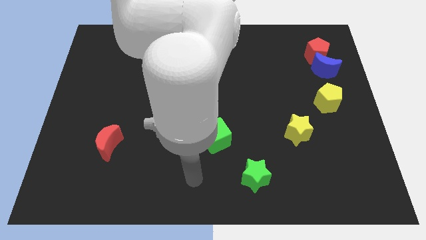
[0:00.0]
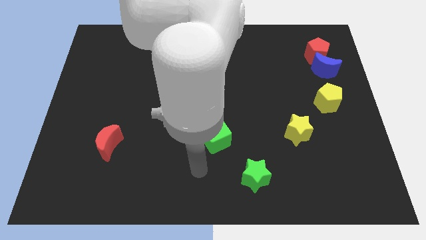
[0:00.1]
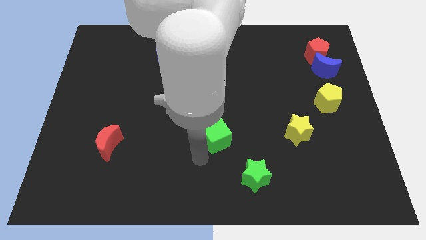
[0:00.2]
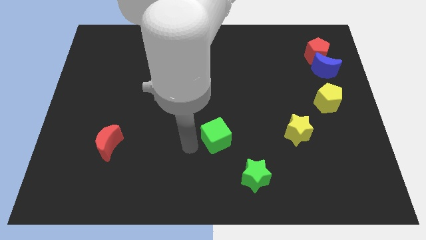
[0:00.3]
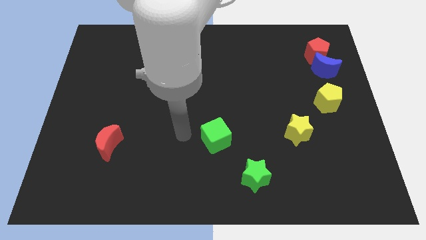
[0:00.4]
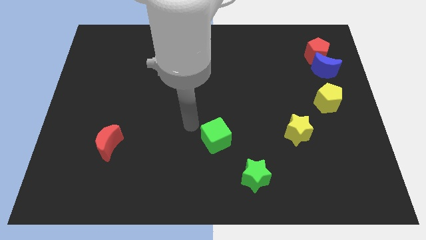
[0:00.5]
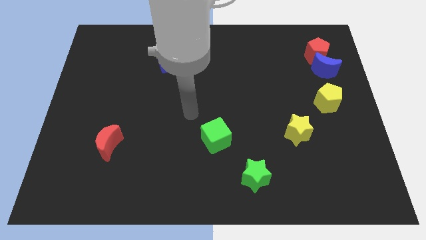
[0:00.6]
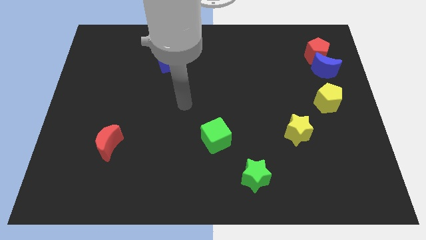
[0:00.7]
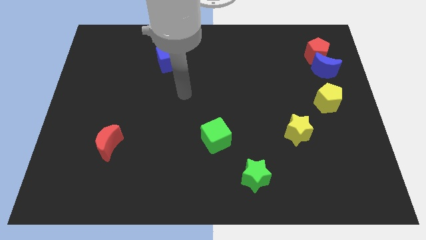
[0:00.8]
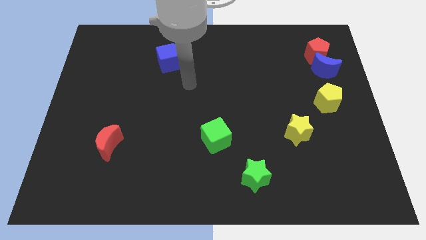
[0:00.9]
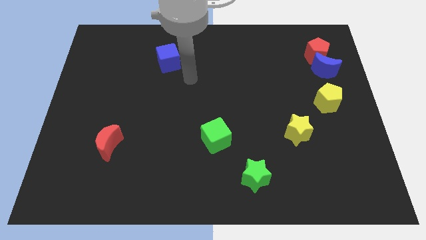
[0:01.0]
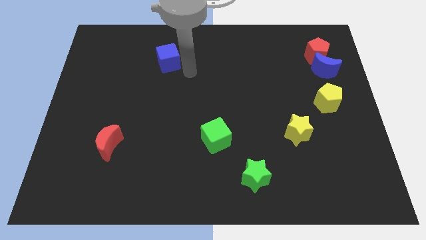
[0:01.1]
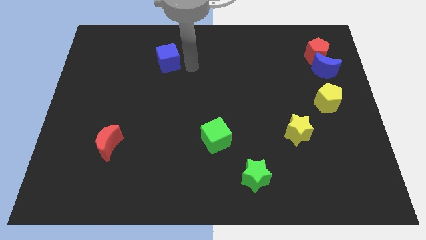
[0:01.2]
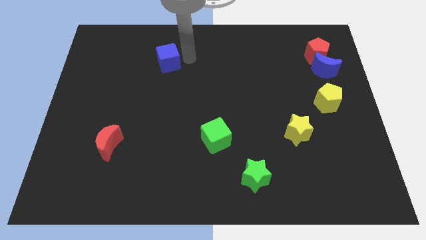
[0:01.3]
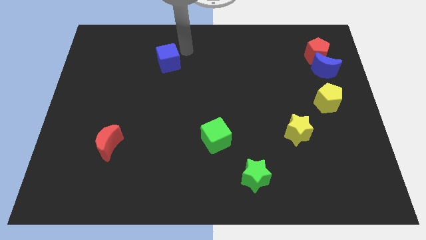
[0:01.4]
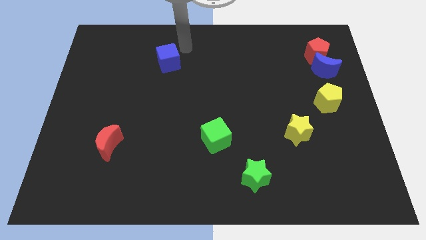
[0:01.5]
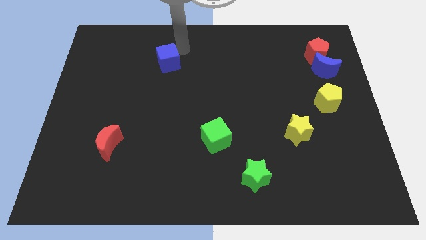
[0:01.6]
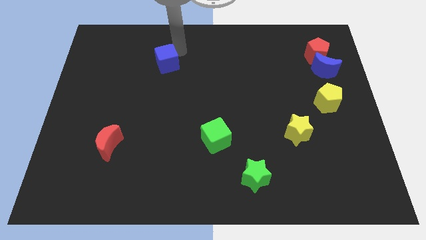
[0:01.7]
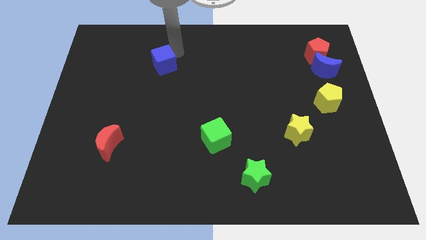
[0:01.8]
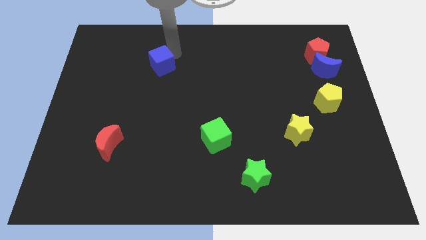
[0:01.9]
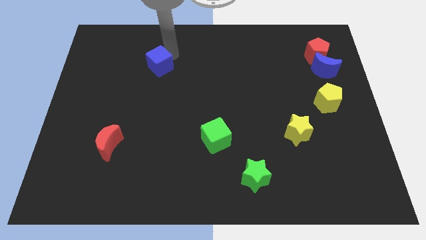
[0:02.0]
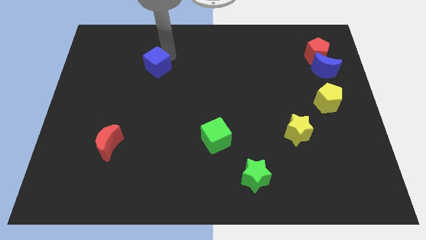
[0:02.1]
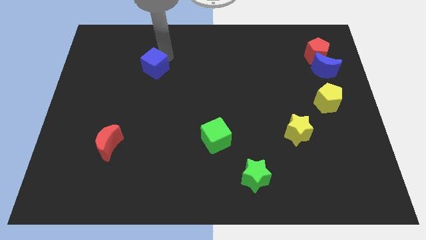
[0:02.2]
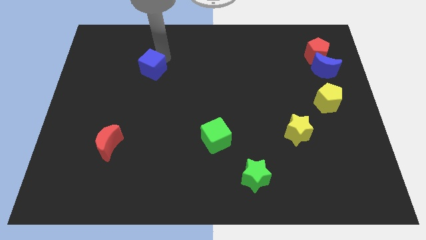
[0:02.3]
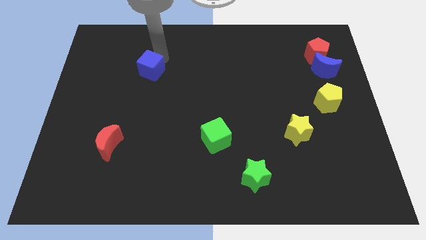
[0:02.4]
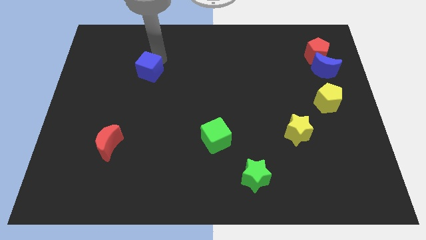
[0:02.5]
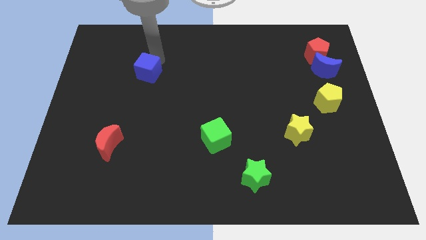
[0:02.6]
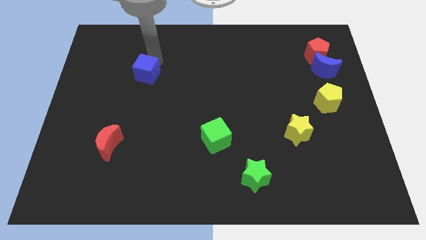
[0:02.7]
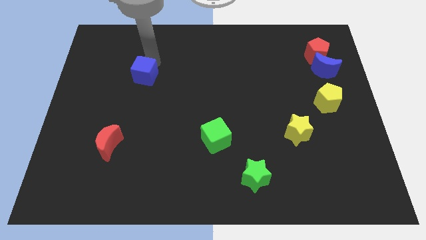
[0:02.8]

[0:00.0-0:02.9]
slide the blue cube a bit diagonally downwards and to the left

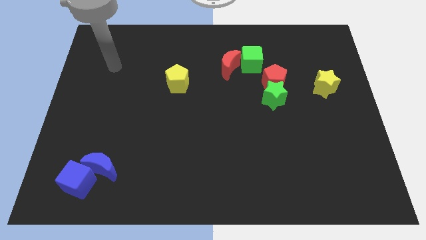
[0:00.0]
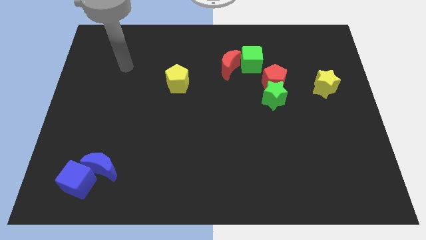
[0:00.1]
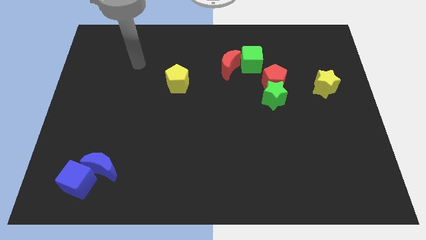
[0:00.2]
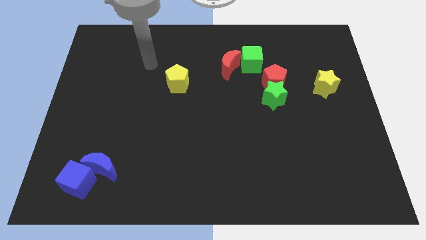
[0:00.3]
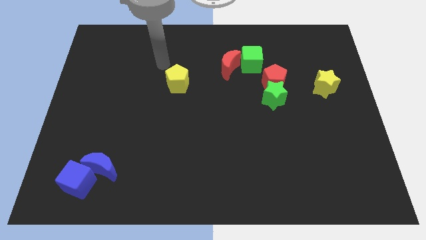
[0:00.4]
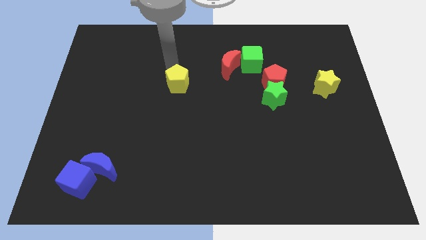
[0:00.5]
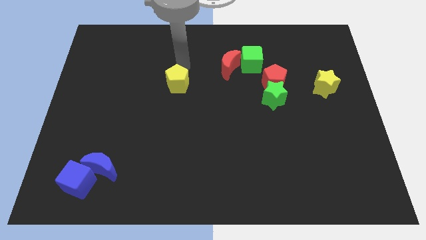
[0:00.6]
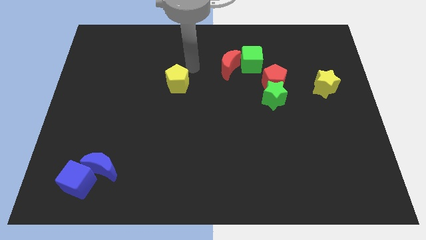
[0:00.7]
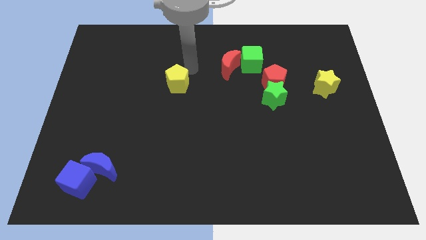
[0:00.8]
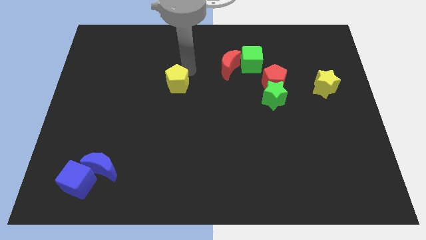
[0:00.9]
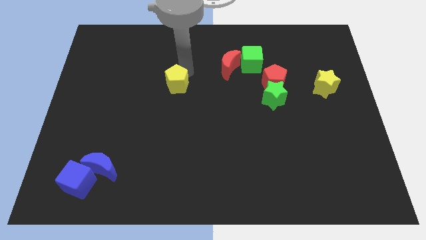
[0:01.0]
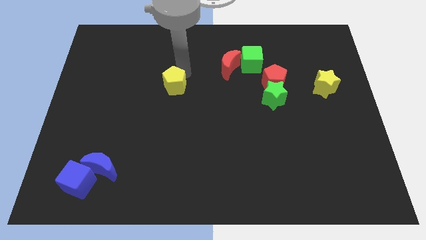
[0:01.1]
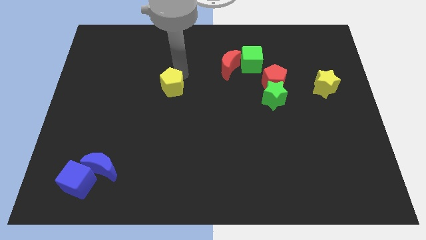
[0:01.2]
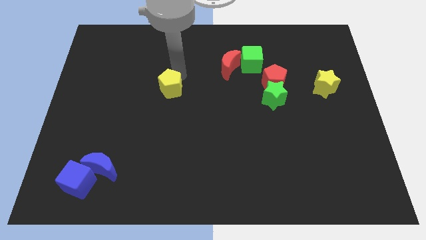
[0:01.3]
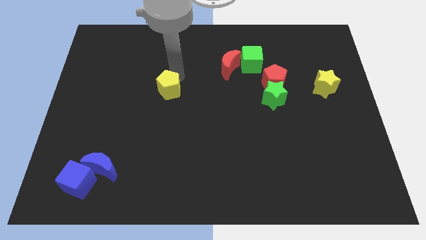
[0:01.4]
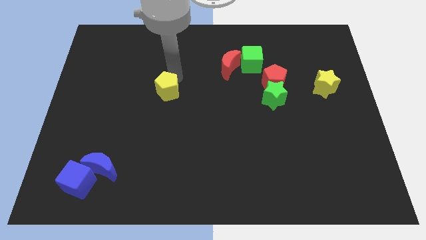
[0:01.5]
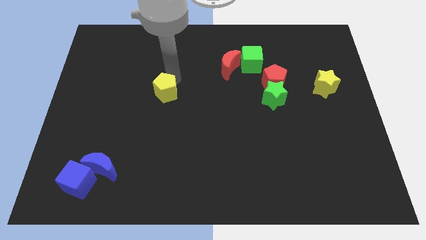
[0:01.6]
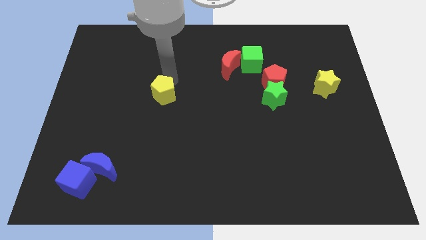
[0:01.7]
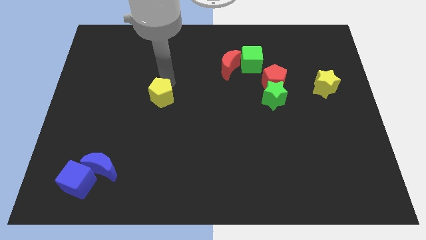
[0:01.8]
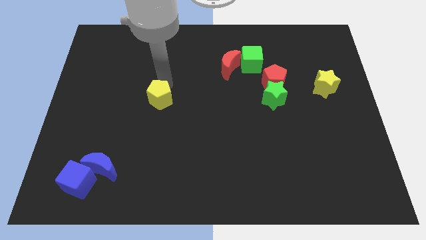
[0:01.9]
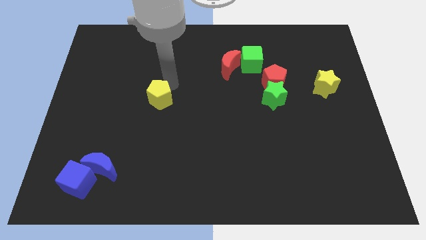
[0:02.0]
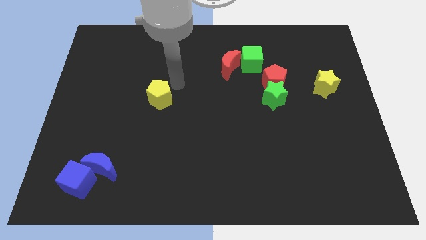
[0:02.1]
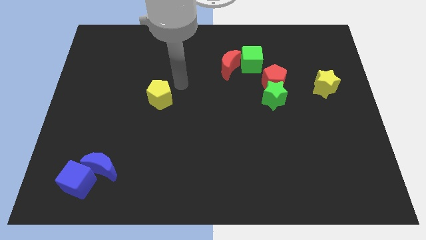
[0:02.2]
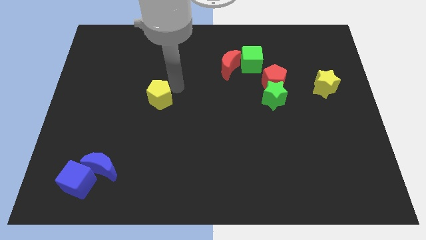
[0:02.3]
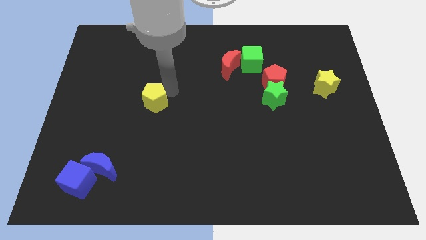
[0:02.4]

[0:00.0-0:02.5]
move the yellow pentagon somewhat downwards and to the left

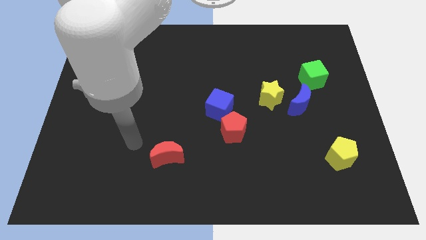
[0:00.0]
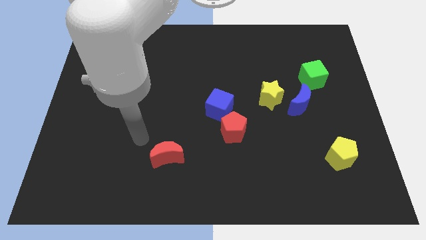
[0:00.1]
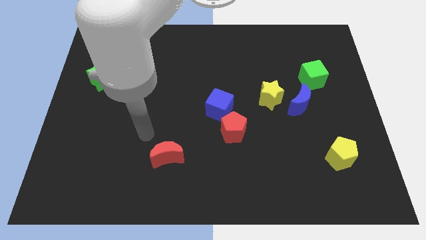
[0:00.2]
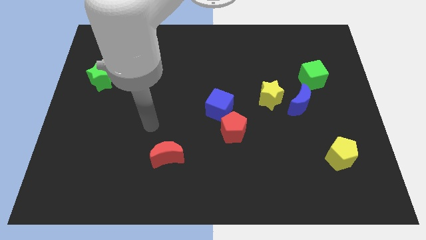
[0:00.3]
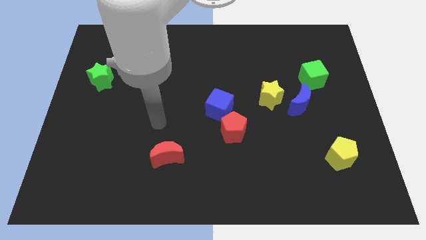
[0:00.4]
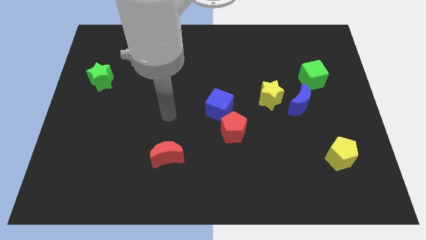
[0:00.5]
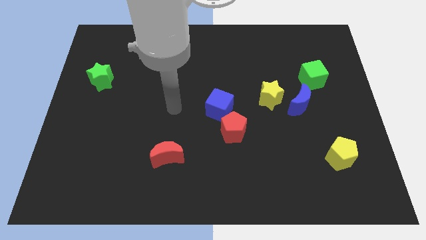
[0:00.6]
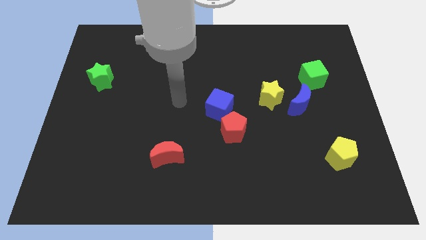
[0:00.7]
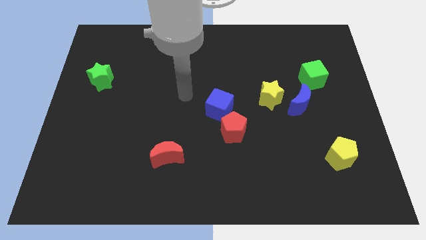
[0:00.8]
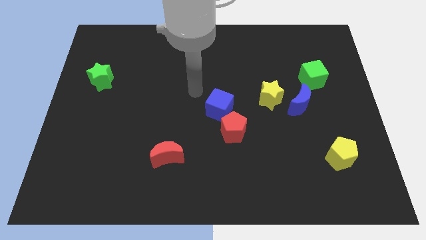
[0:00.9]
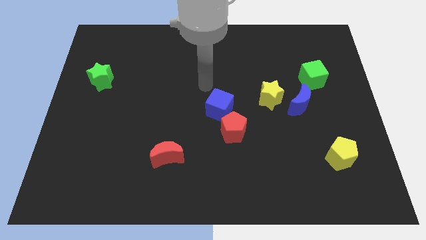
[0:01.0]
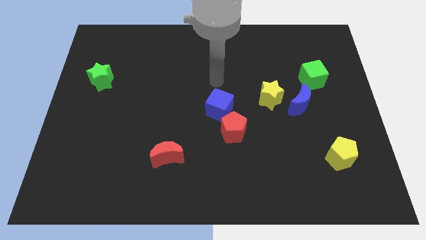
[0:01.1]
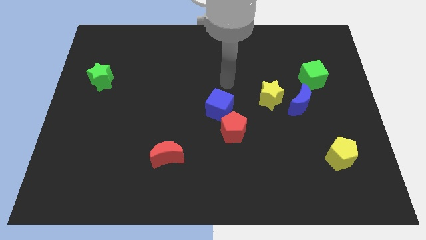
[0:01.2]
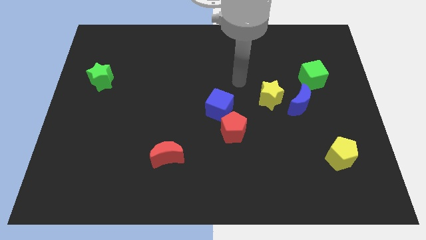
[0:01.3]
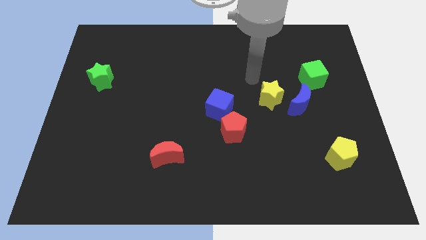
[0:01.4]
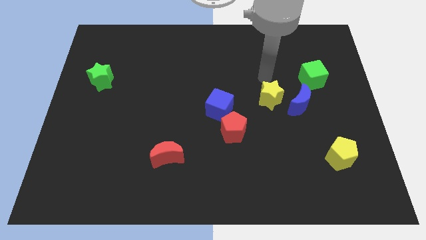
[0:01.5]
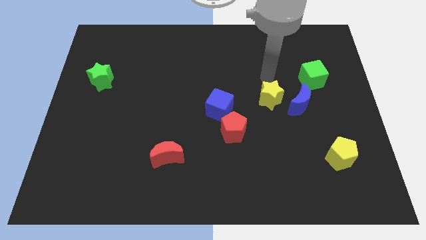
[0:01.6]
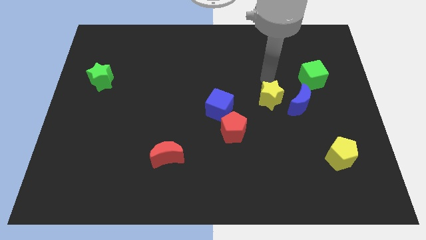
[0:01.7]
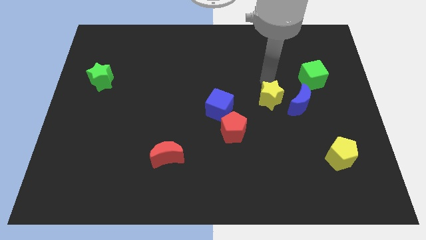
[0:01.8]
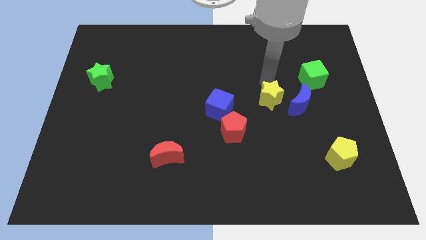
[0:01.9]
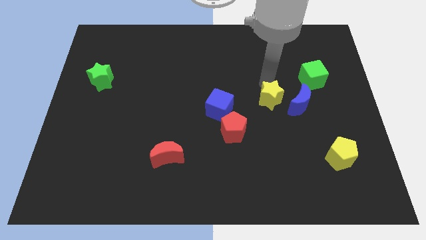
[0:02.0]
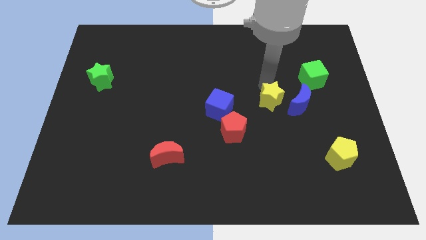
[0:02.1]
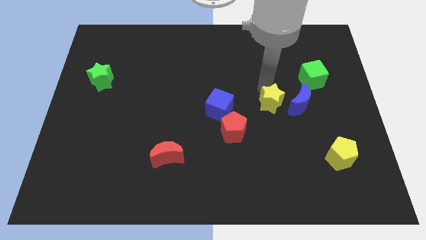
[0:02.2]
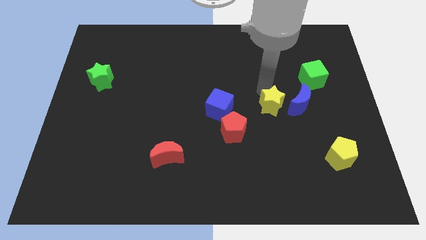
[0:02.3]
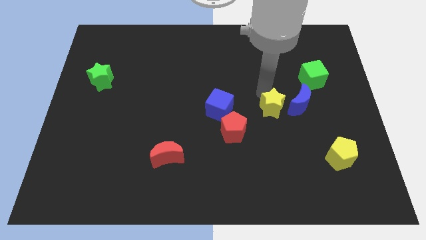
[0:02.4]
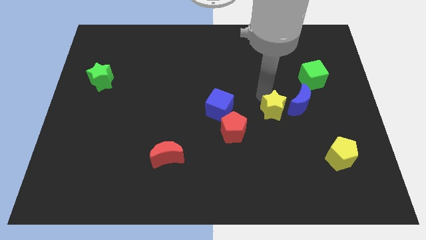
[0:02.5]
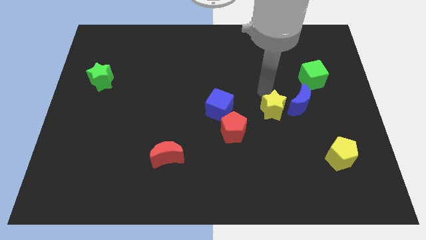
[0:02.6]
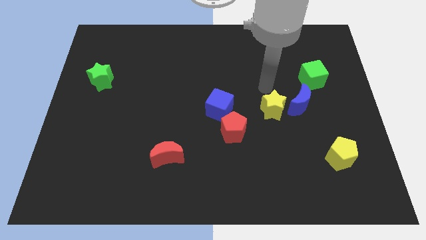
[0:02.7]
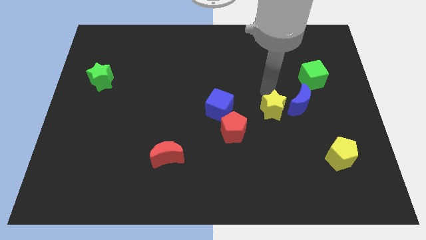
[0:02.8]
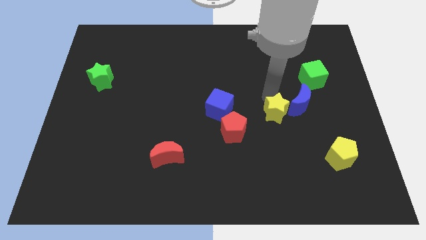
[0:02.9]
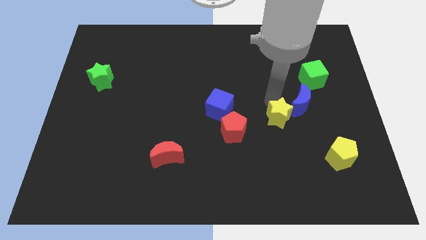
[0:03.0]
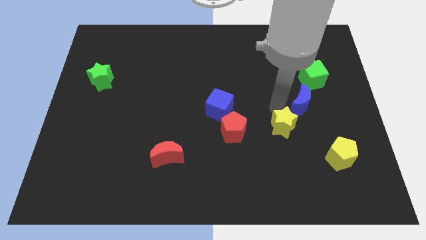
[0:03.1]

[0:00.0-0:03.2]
move the yellow star down a bit

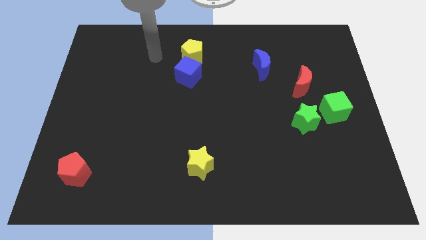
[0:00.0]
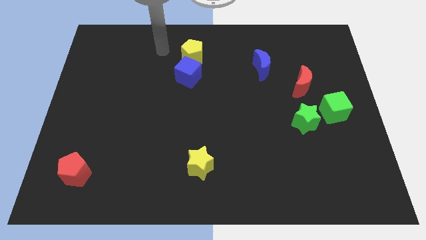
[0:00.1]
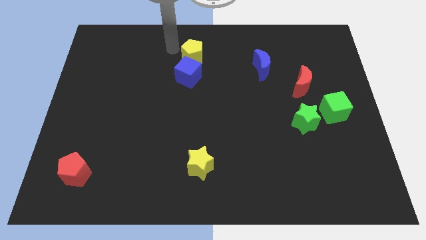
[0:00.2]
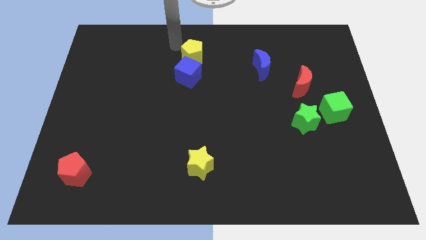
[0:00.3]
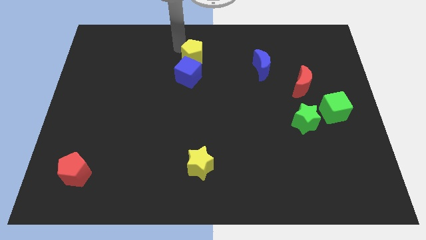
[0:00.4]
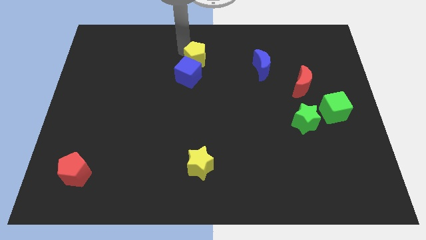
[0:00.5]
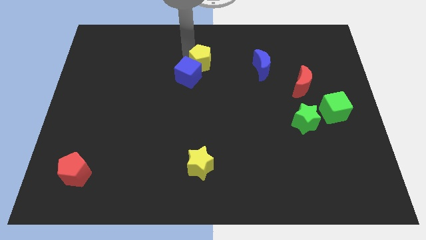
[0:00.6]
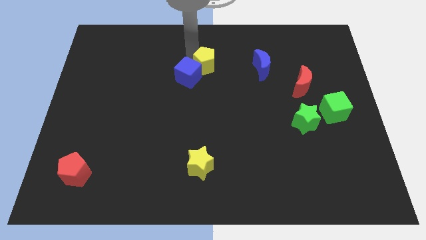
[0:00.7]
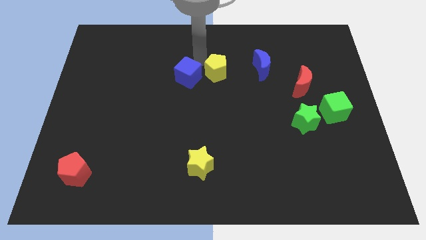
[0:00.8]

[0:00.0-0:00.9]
slightly push the yellow pentagon down and to the right
